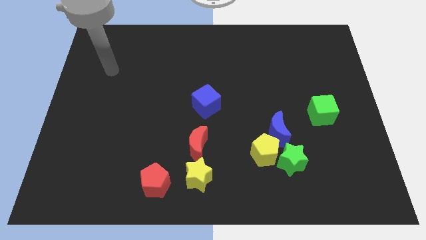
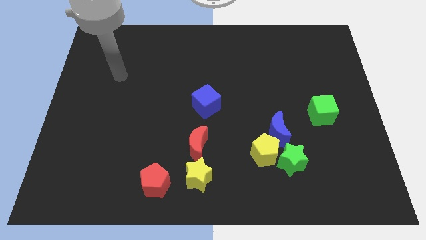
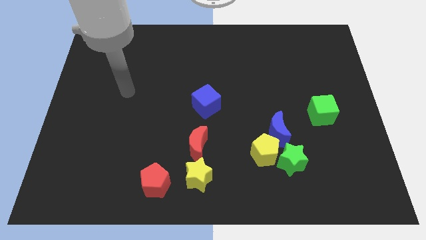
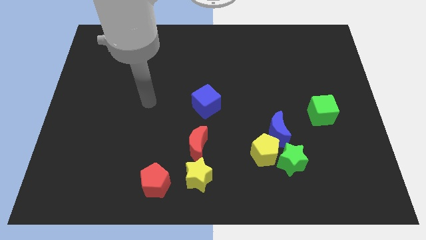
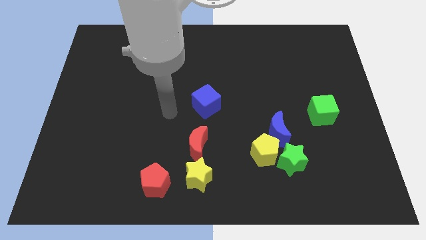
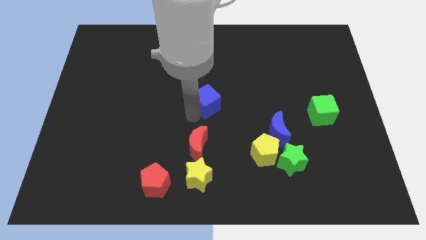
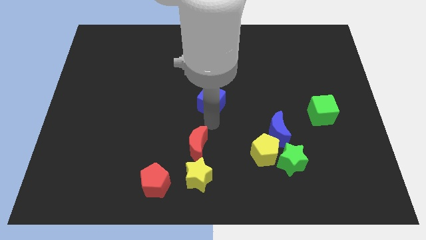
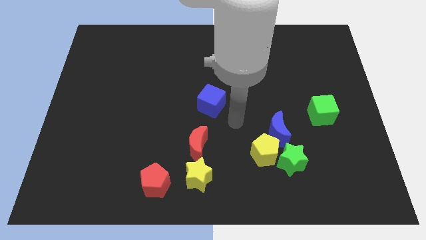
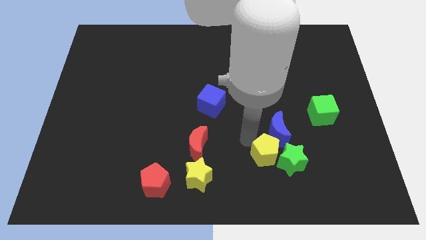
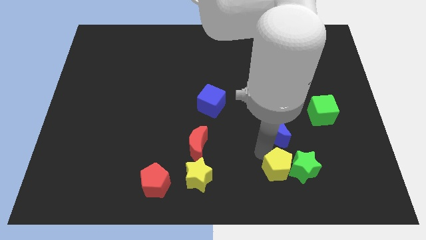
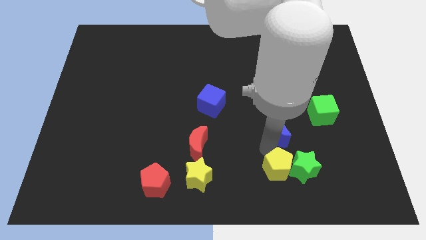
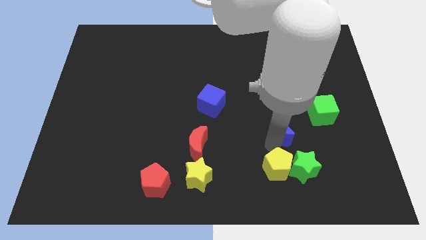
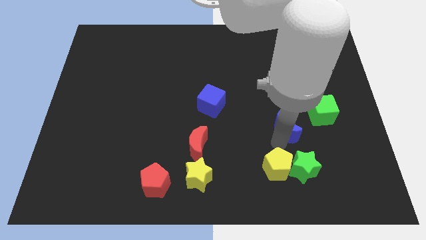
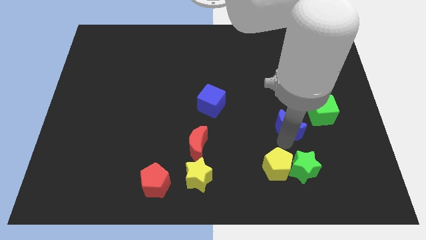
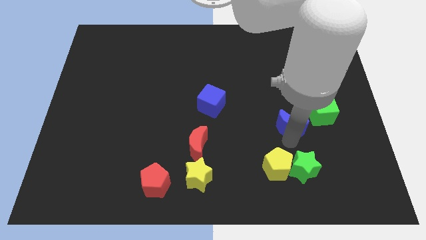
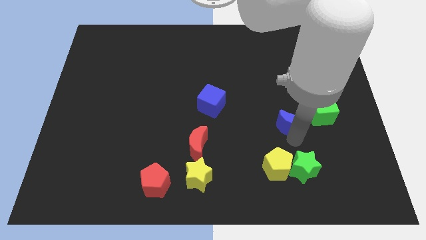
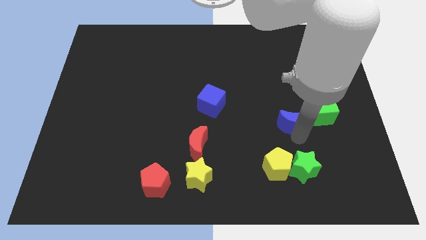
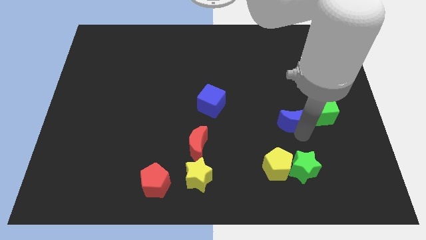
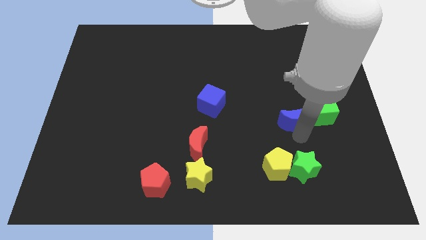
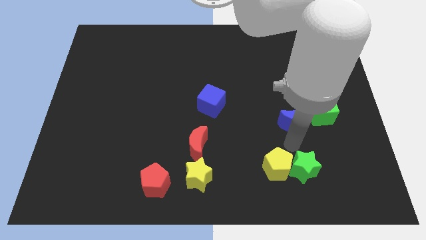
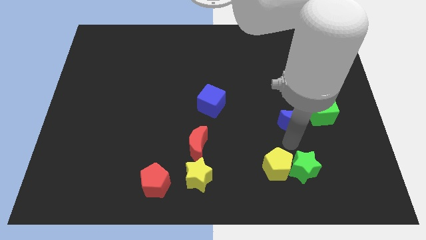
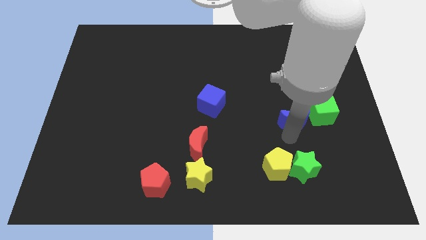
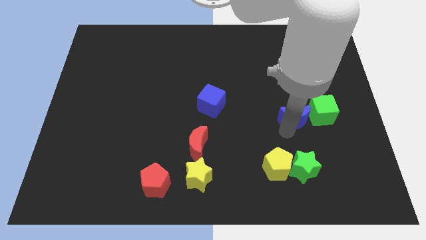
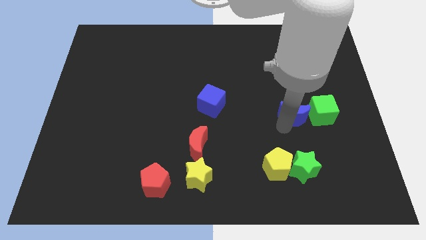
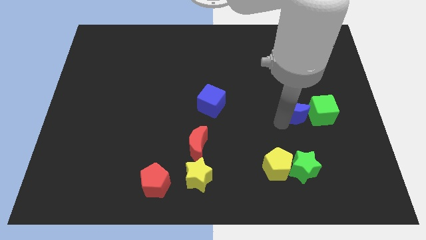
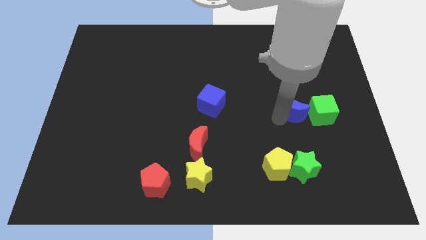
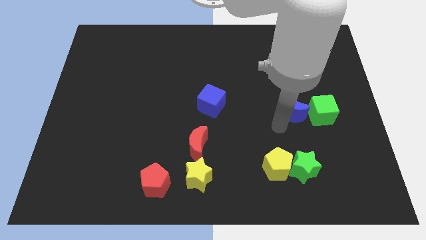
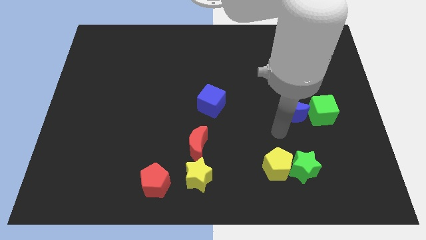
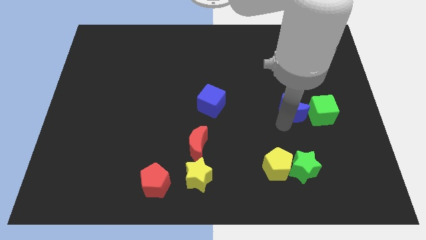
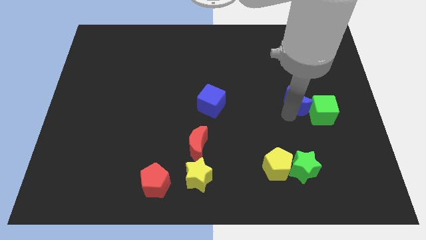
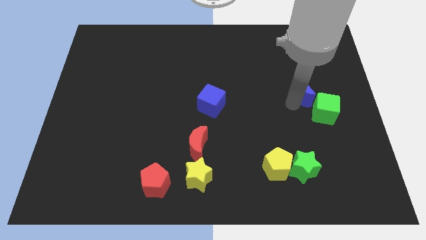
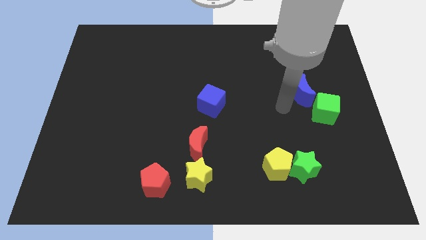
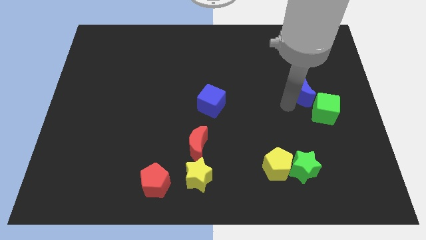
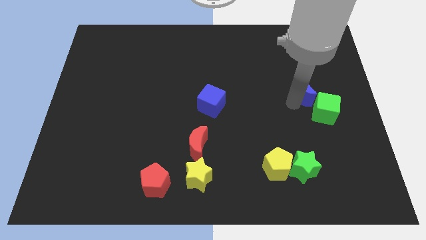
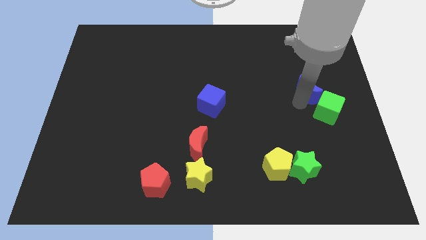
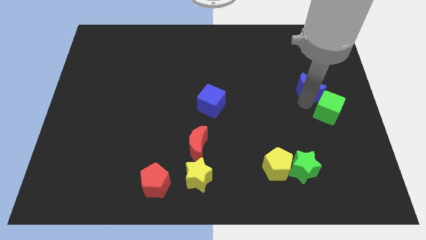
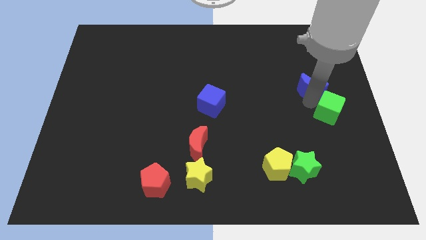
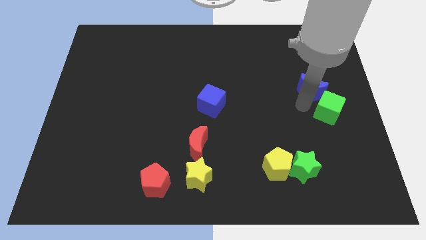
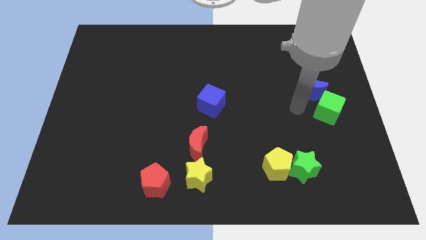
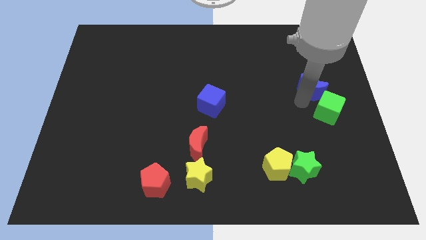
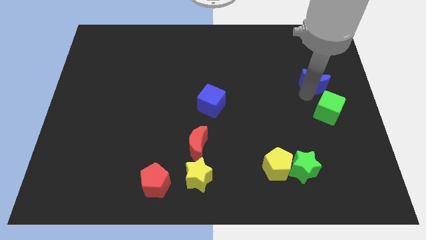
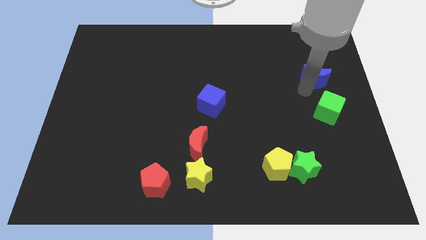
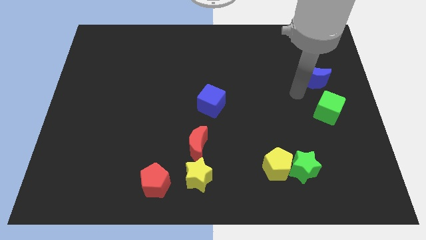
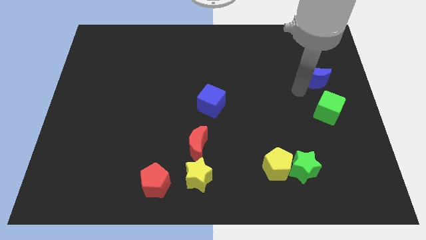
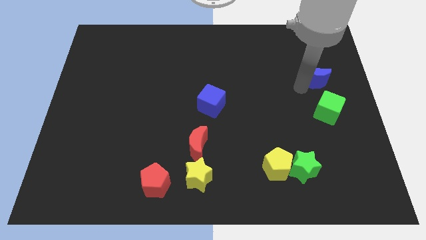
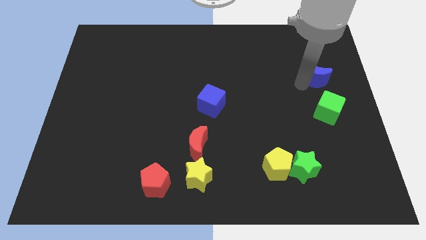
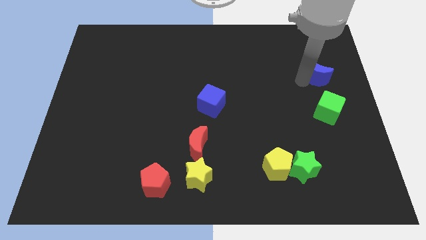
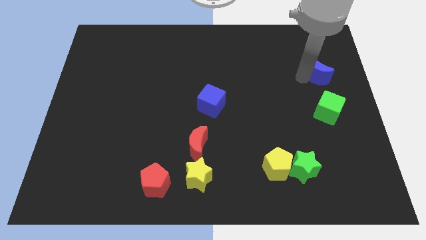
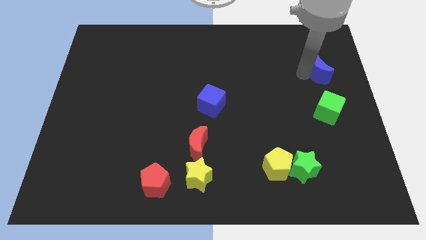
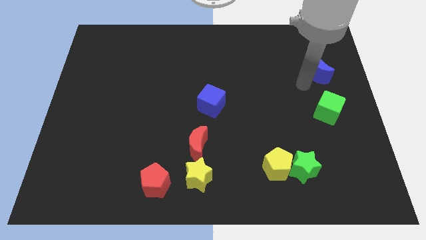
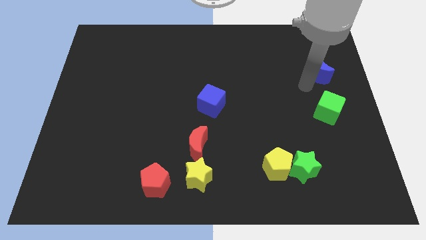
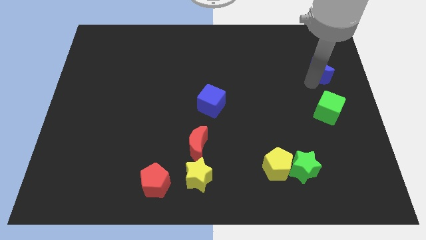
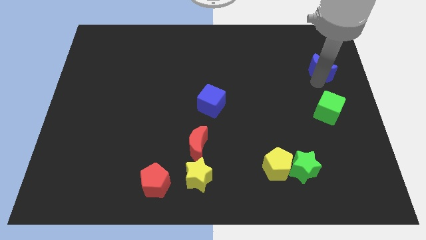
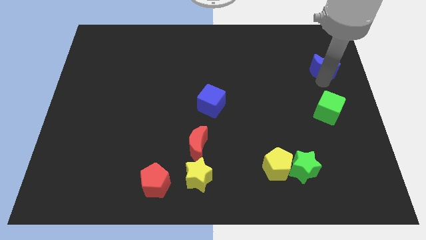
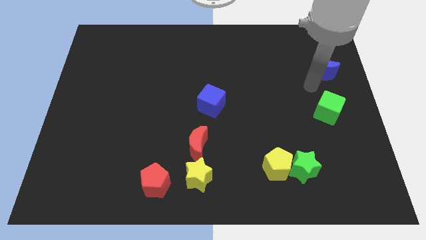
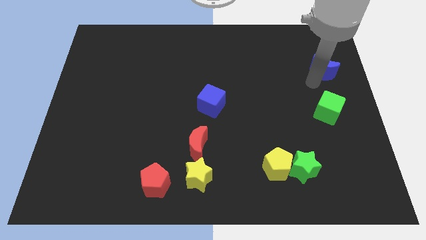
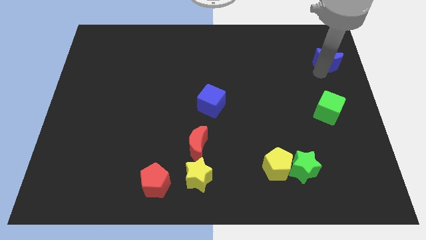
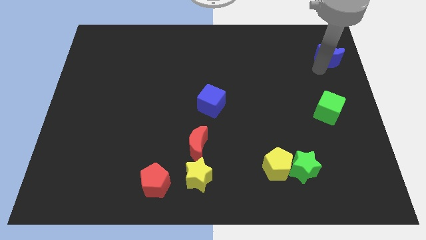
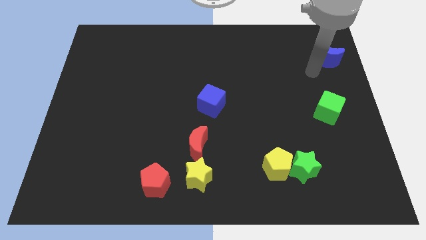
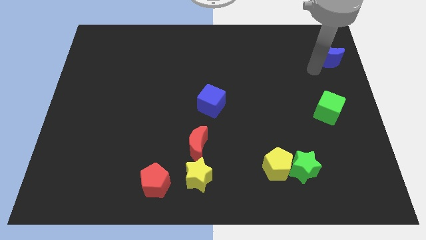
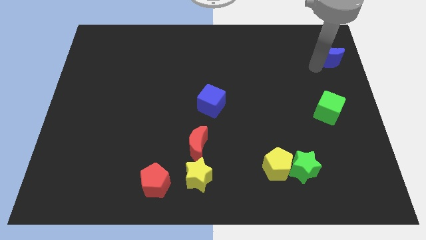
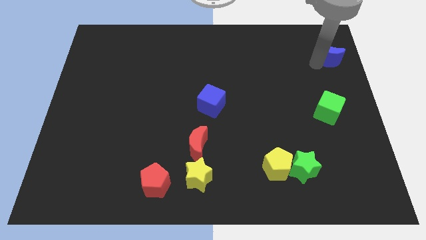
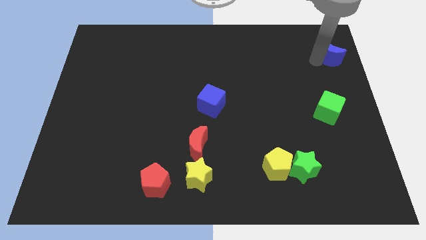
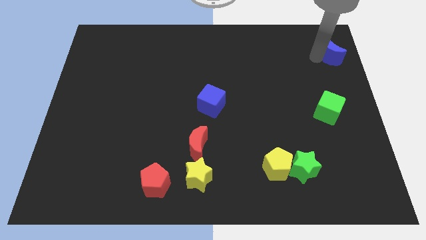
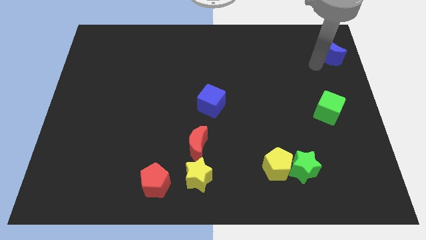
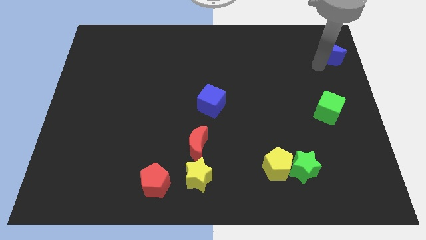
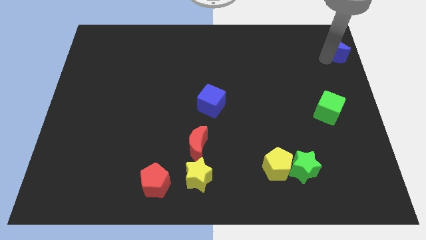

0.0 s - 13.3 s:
move the blue moon to the top right corner

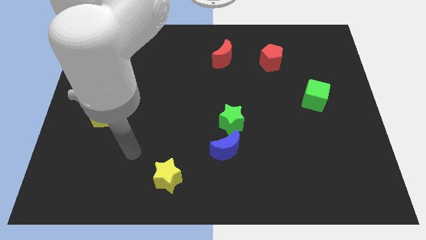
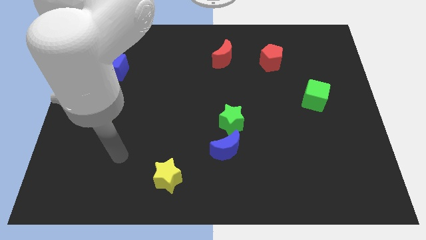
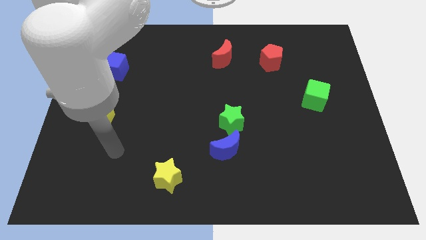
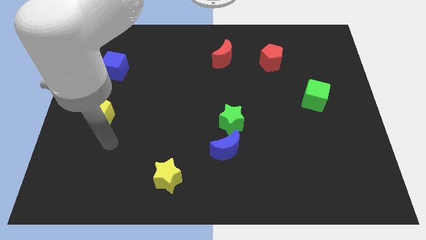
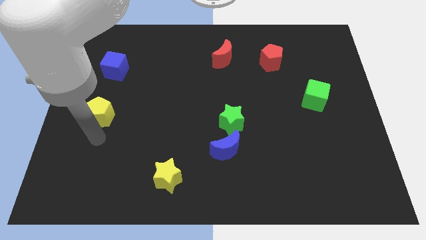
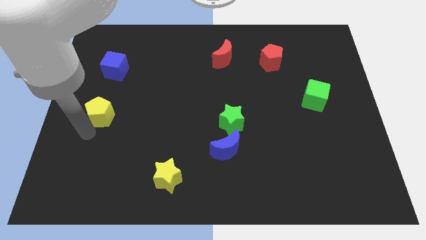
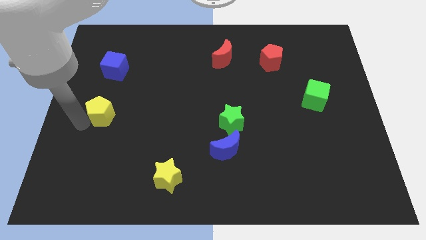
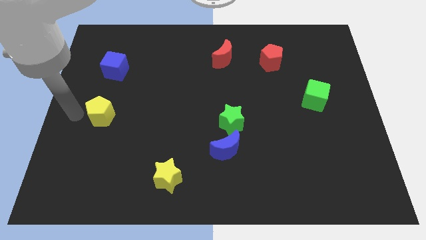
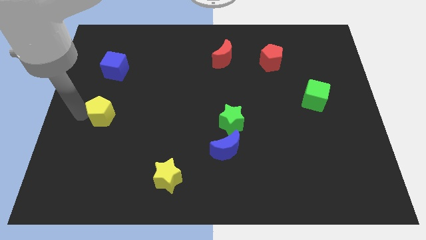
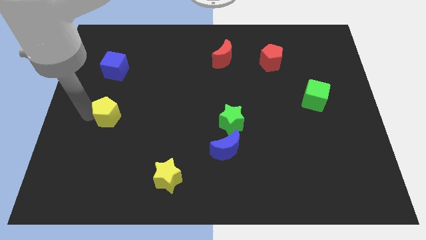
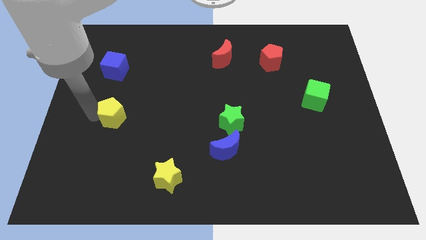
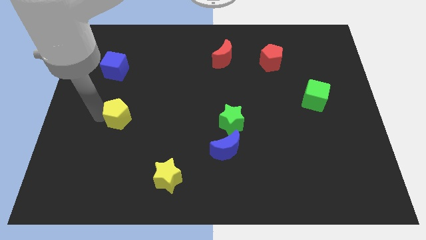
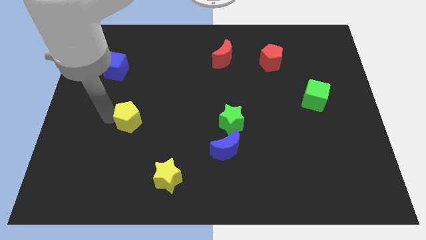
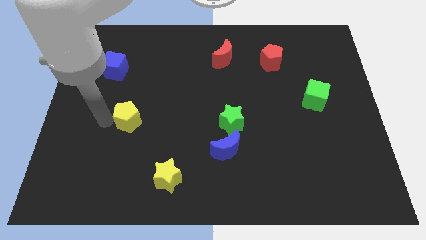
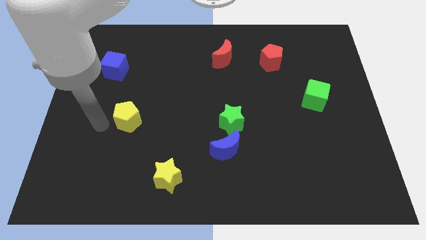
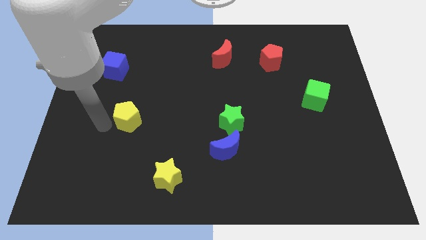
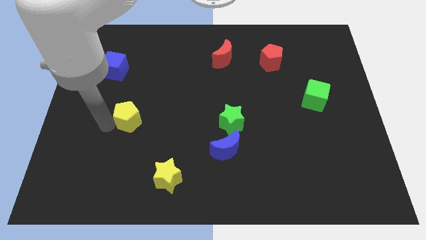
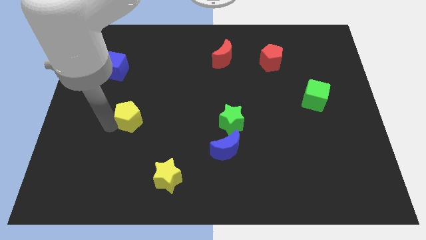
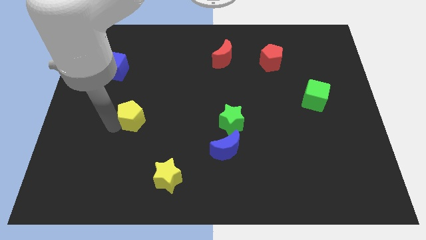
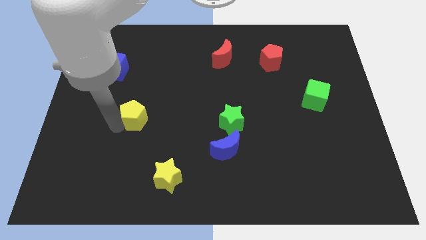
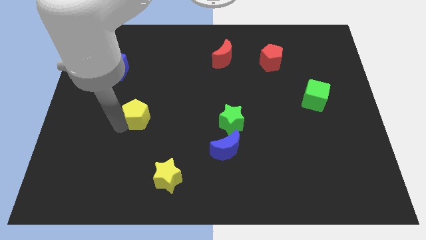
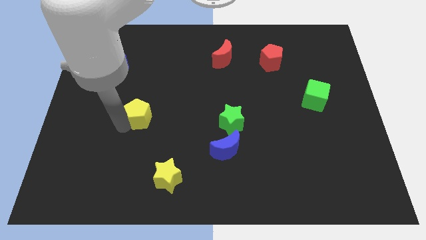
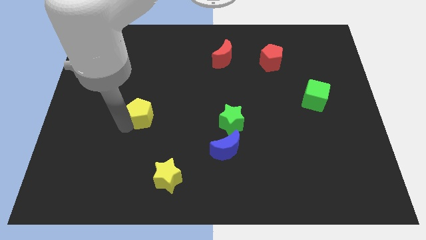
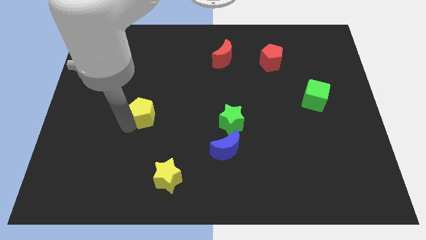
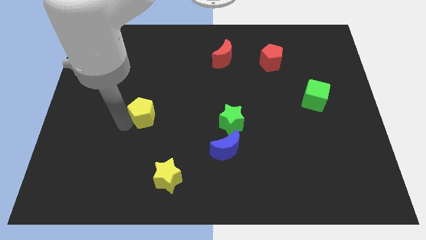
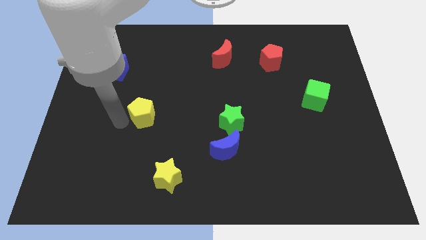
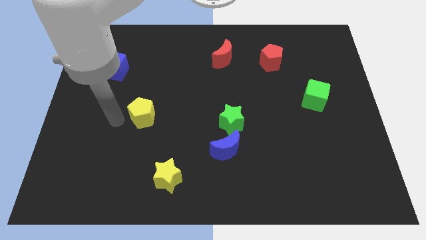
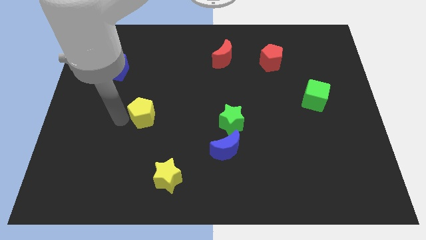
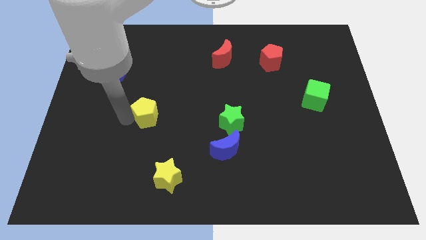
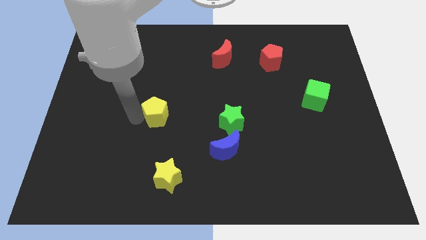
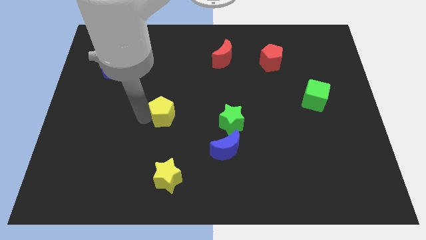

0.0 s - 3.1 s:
move the yellow pentagon to the middle of the board
